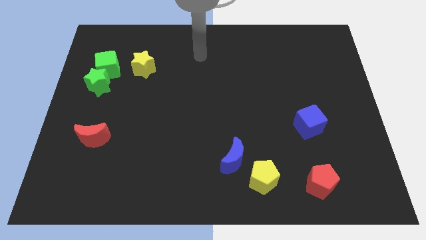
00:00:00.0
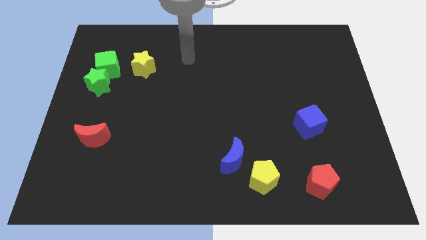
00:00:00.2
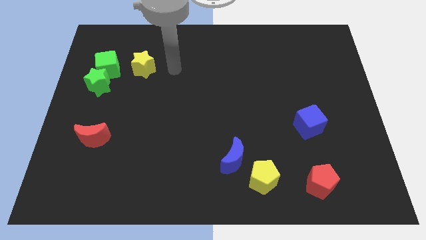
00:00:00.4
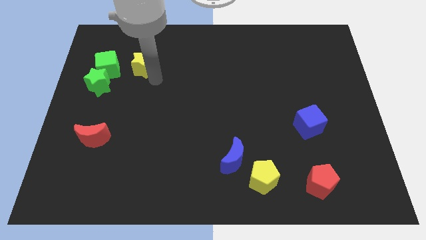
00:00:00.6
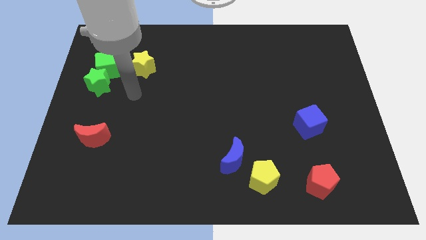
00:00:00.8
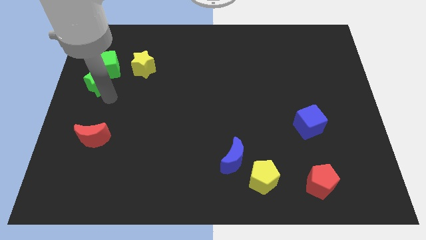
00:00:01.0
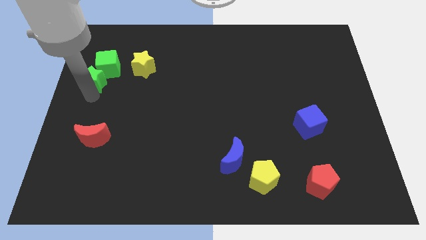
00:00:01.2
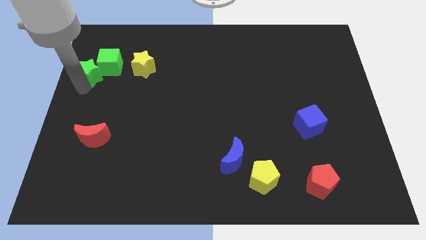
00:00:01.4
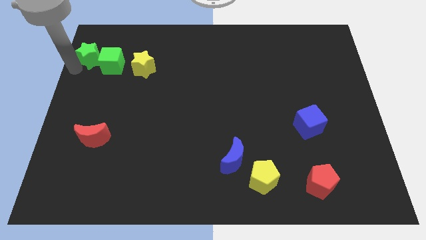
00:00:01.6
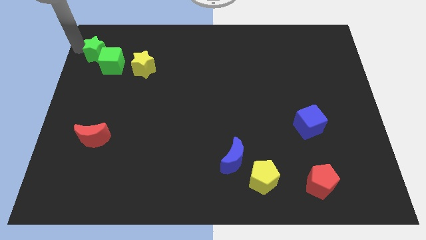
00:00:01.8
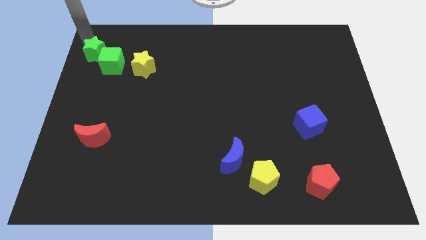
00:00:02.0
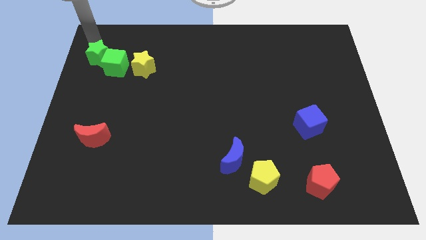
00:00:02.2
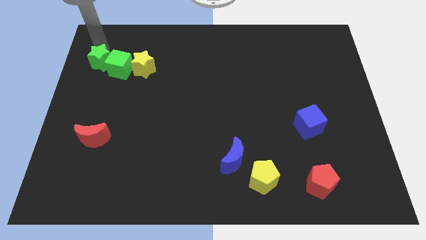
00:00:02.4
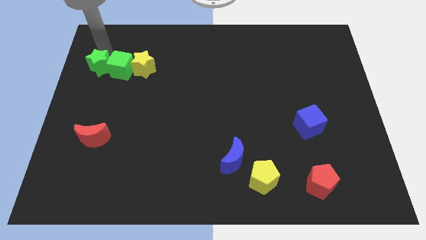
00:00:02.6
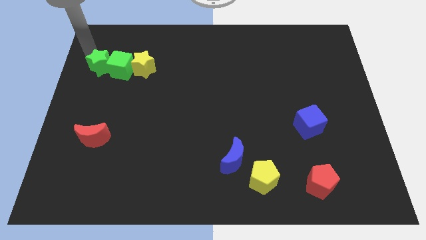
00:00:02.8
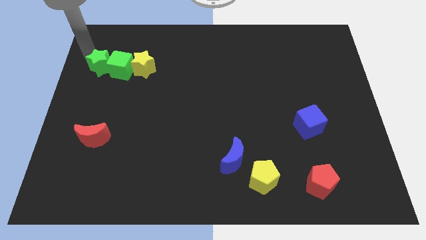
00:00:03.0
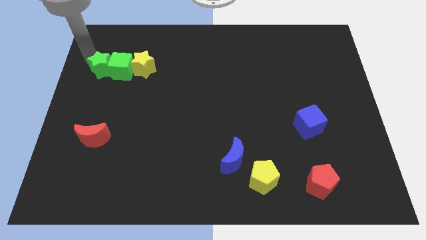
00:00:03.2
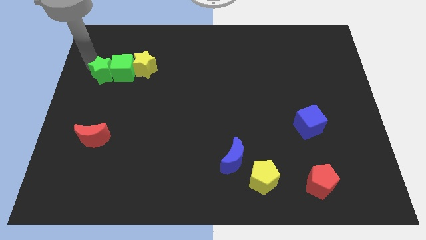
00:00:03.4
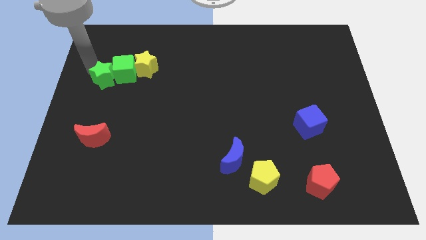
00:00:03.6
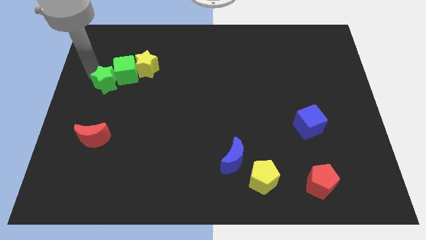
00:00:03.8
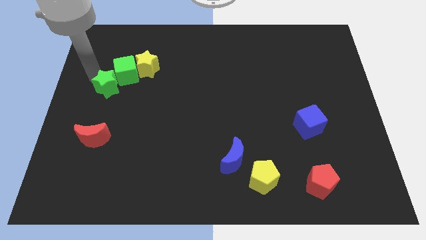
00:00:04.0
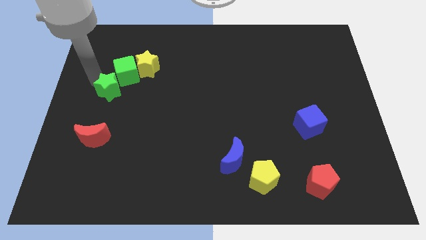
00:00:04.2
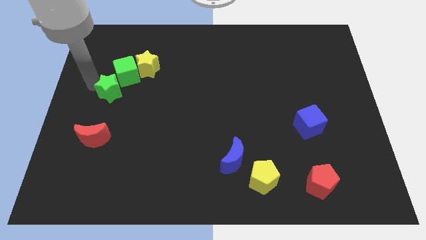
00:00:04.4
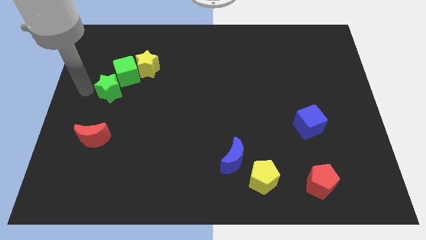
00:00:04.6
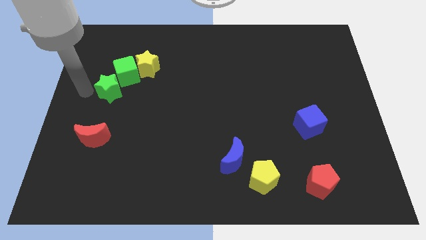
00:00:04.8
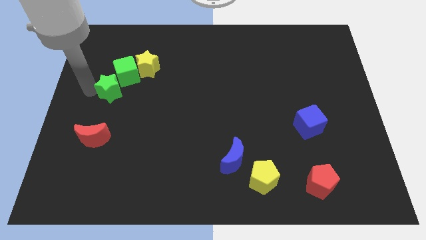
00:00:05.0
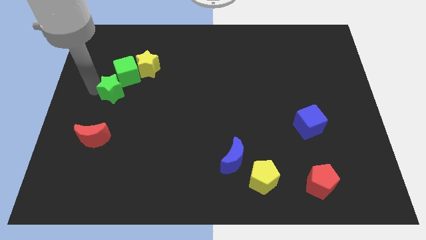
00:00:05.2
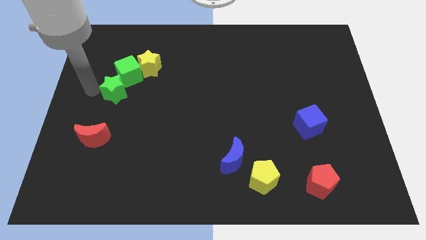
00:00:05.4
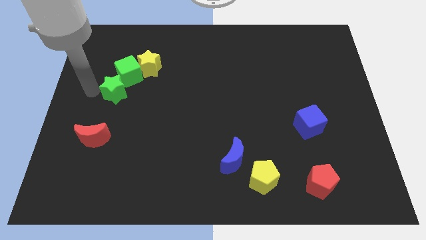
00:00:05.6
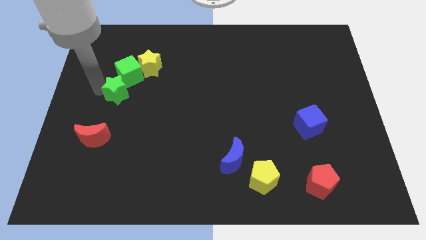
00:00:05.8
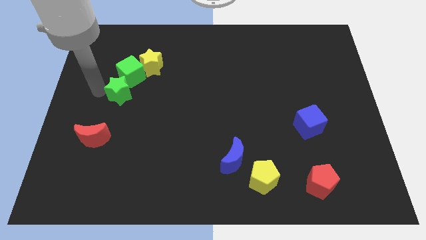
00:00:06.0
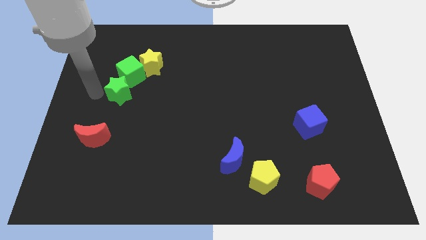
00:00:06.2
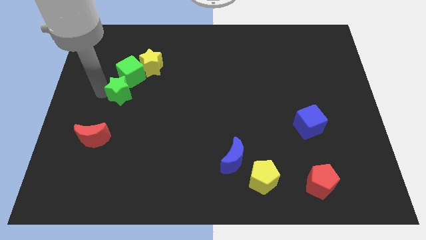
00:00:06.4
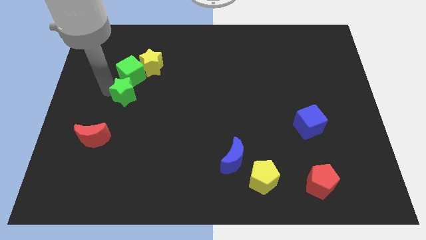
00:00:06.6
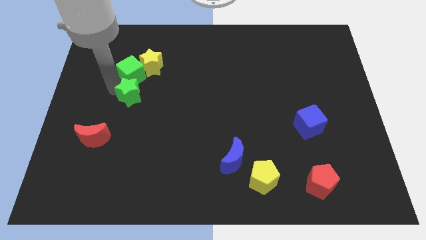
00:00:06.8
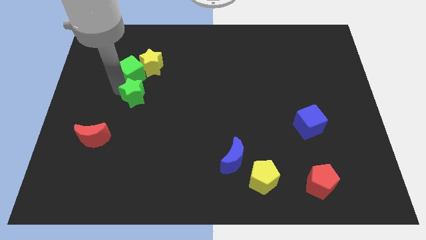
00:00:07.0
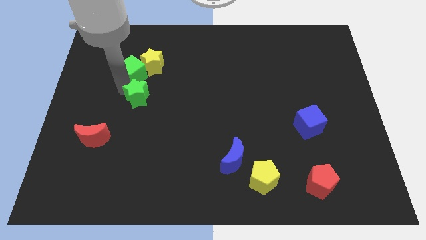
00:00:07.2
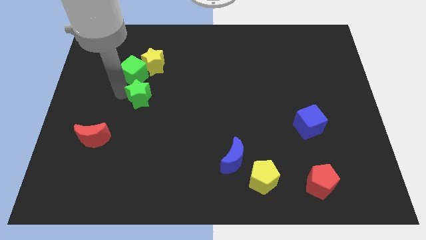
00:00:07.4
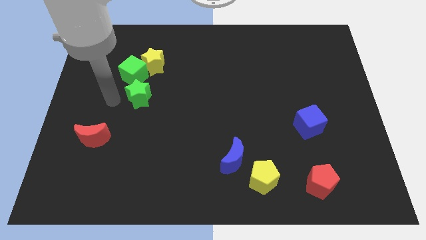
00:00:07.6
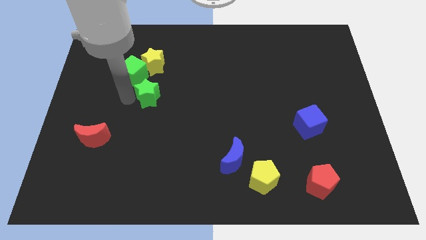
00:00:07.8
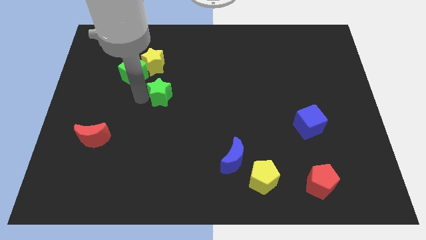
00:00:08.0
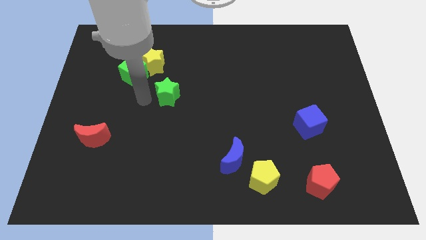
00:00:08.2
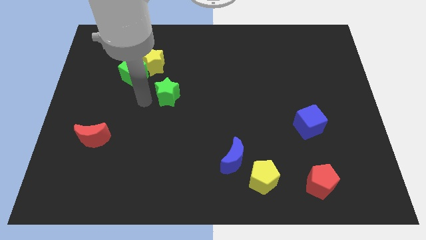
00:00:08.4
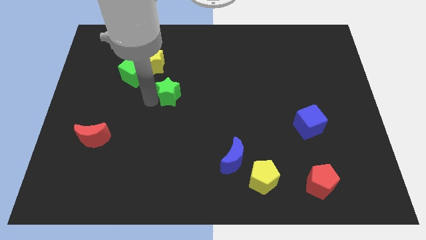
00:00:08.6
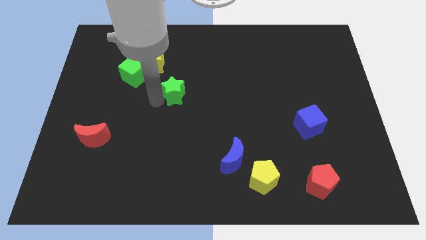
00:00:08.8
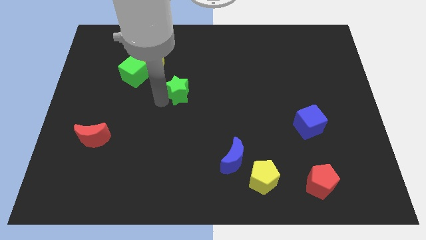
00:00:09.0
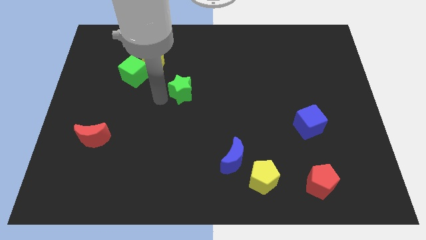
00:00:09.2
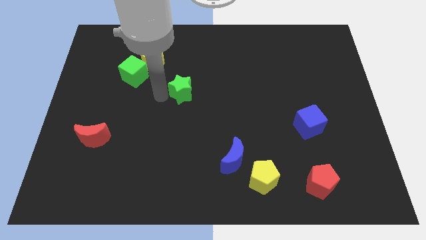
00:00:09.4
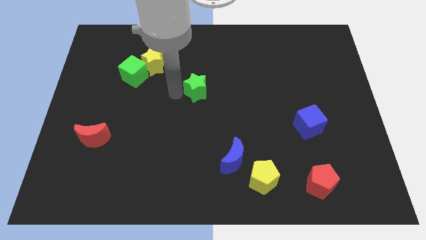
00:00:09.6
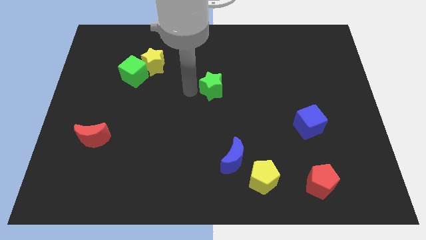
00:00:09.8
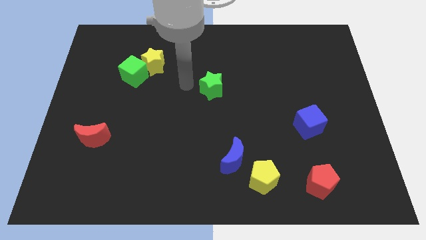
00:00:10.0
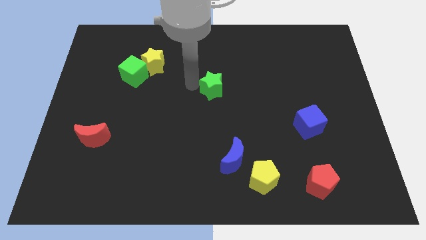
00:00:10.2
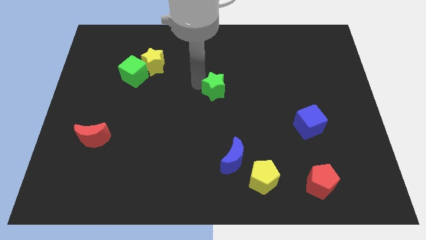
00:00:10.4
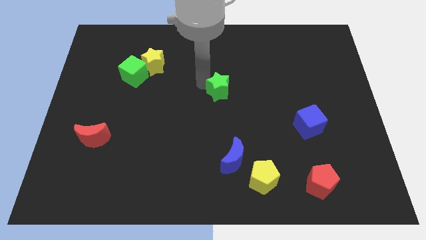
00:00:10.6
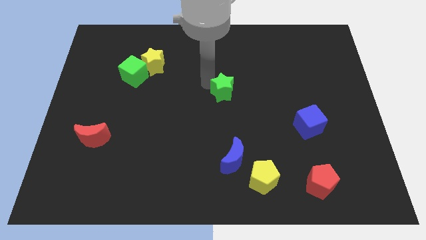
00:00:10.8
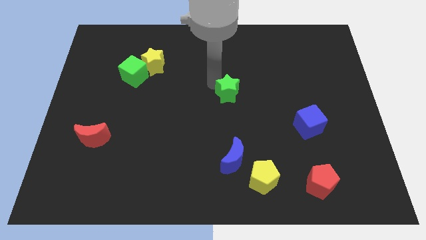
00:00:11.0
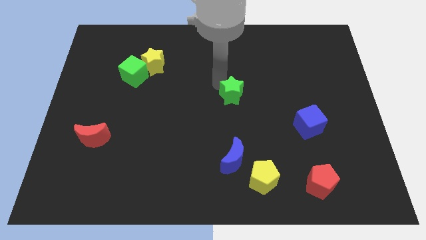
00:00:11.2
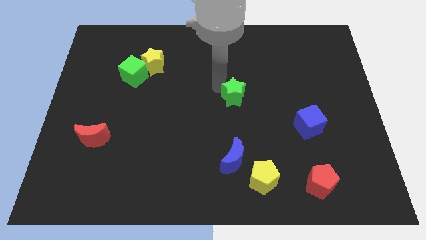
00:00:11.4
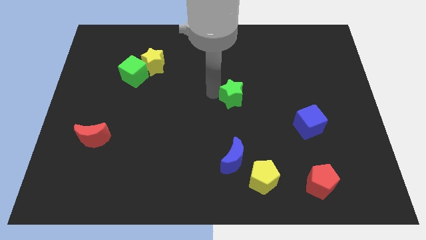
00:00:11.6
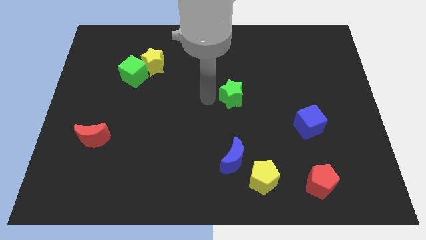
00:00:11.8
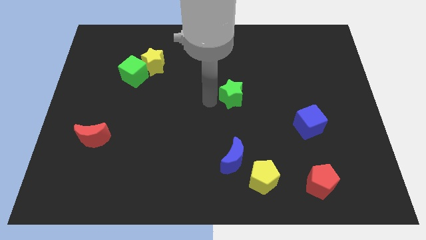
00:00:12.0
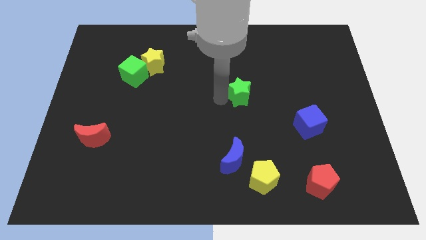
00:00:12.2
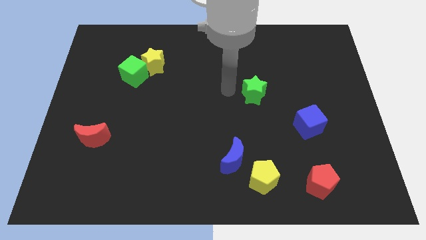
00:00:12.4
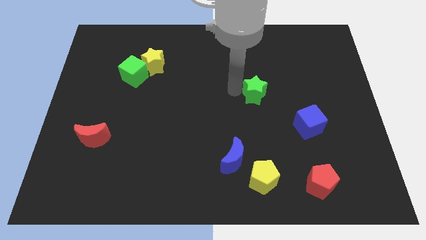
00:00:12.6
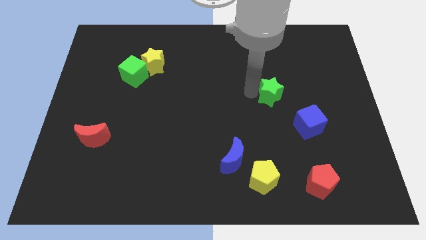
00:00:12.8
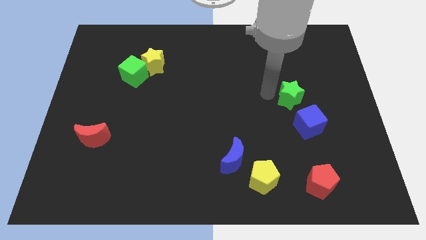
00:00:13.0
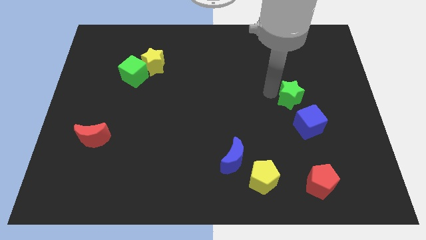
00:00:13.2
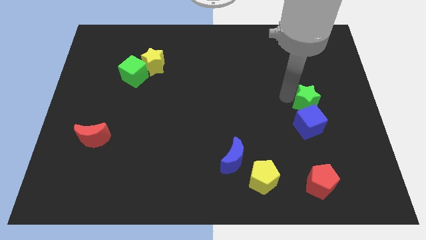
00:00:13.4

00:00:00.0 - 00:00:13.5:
move the green star diagonally up and to the right of the blue cube

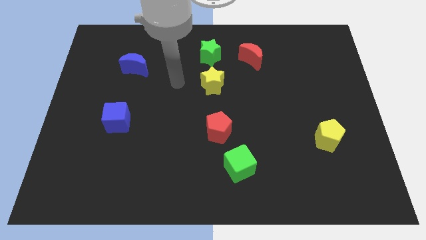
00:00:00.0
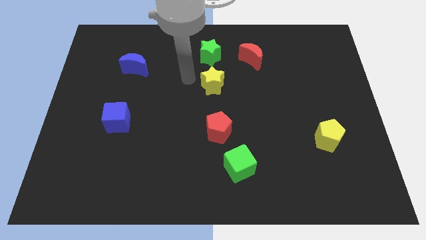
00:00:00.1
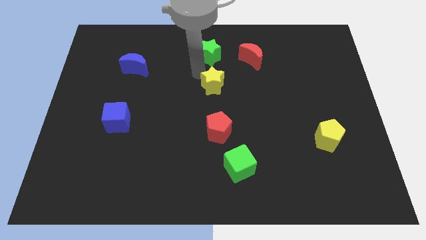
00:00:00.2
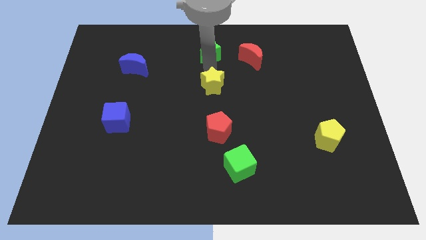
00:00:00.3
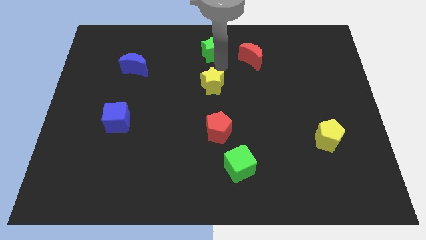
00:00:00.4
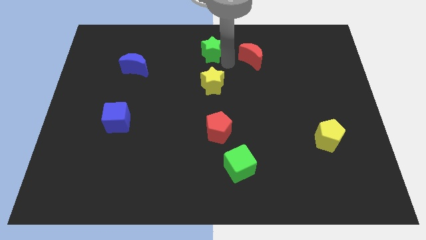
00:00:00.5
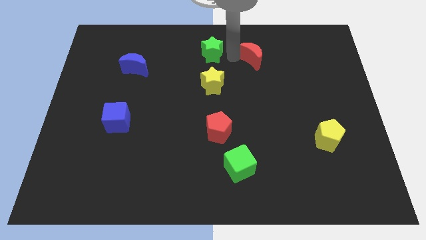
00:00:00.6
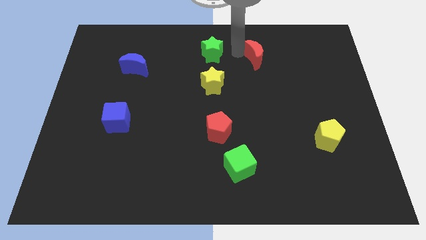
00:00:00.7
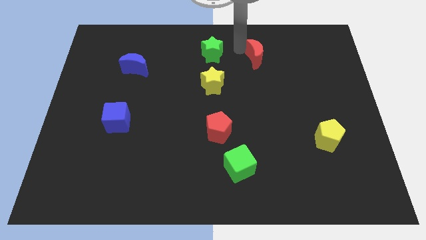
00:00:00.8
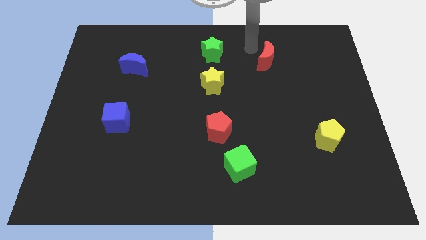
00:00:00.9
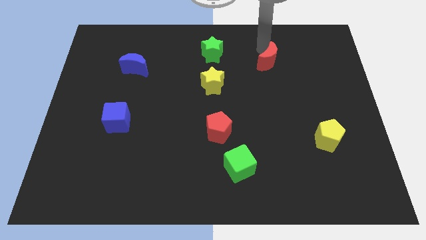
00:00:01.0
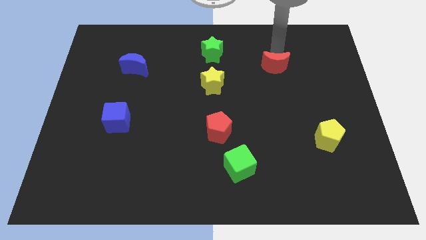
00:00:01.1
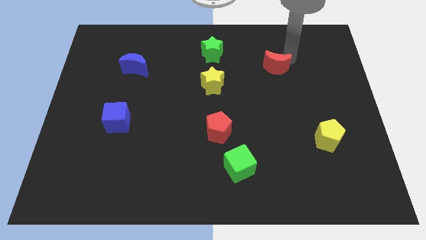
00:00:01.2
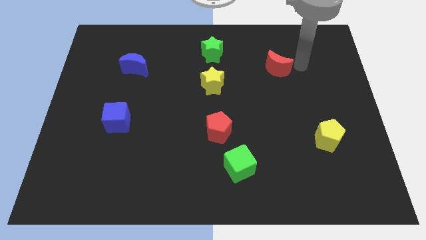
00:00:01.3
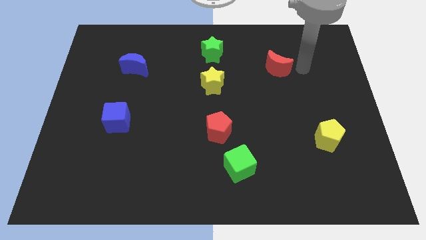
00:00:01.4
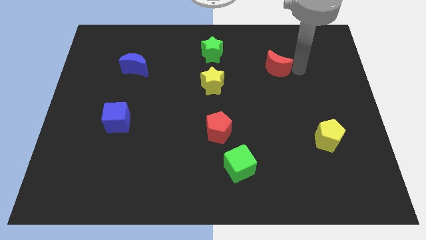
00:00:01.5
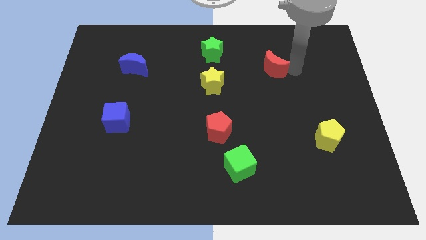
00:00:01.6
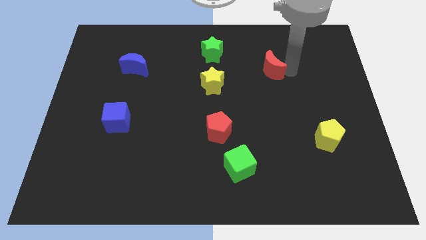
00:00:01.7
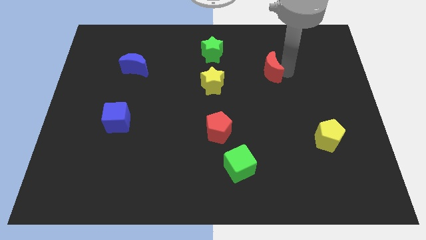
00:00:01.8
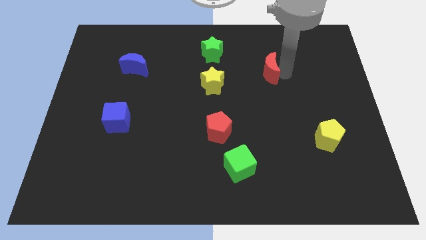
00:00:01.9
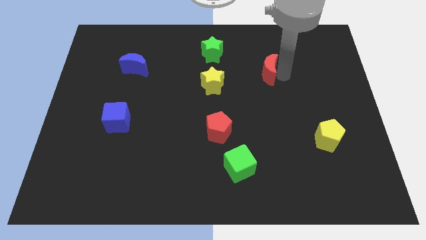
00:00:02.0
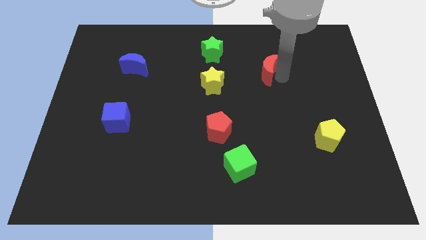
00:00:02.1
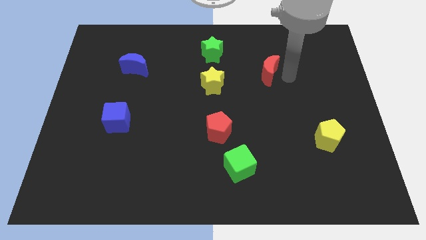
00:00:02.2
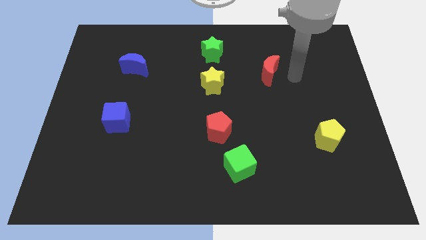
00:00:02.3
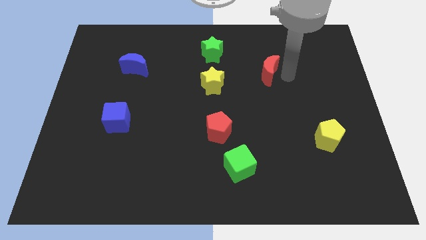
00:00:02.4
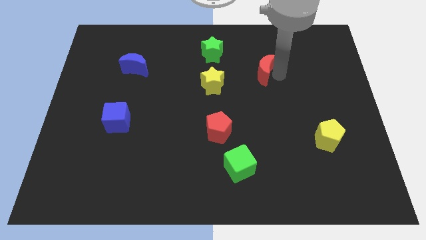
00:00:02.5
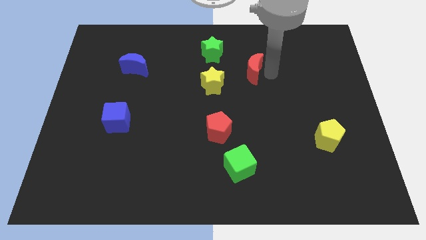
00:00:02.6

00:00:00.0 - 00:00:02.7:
put the red moon diagonally down and to the right of the green star
